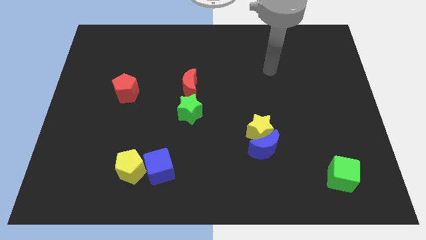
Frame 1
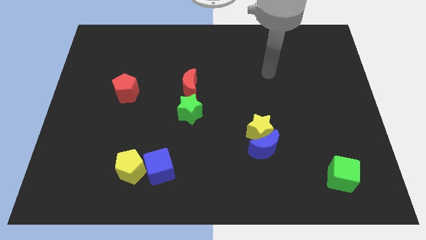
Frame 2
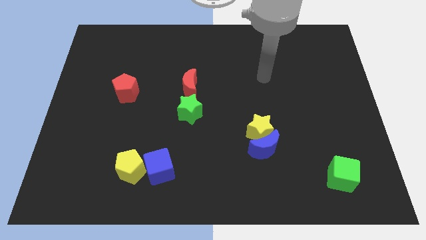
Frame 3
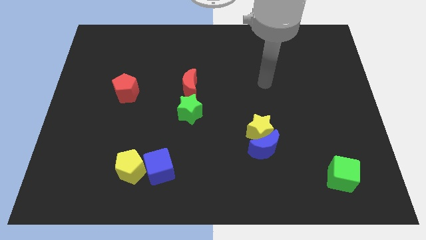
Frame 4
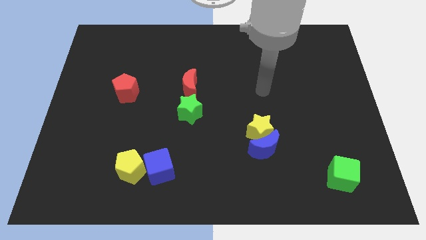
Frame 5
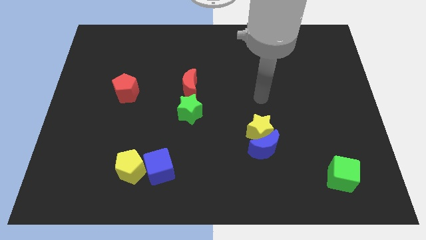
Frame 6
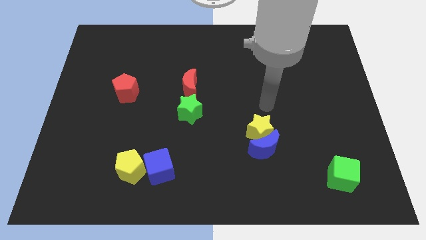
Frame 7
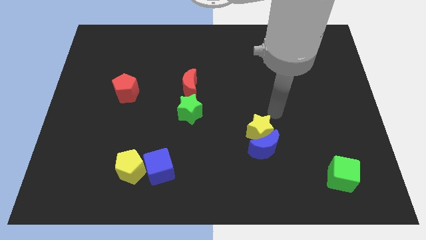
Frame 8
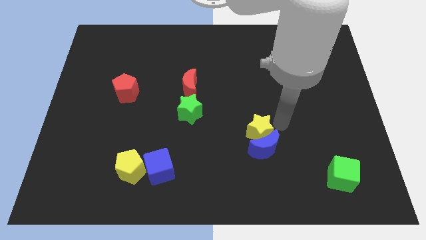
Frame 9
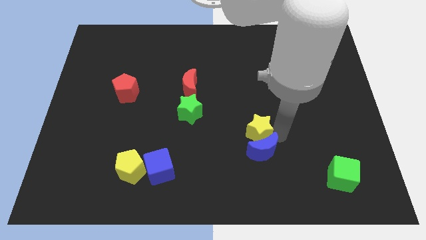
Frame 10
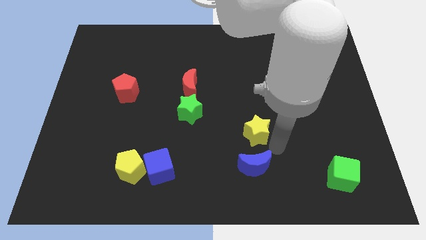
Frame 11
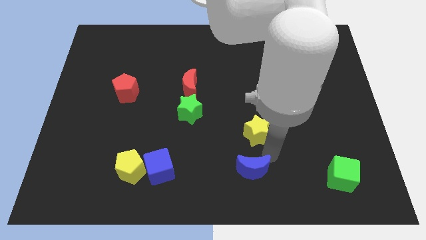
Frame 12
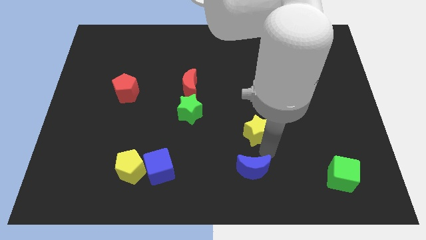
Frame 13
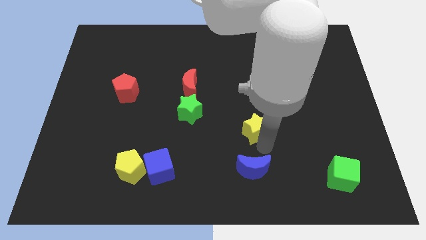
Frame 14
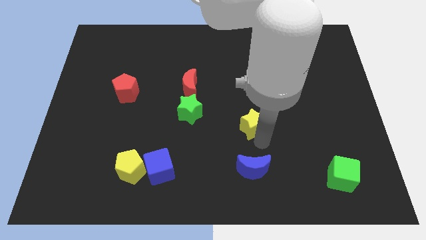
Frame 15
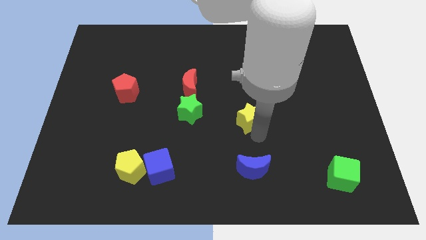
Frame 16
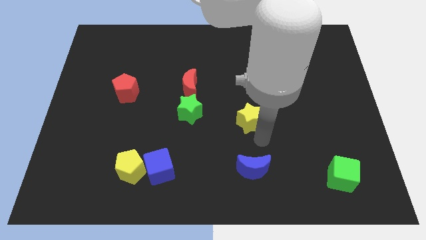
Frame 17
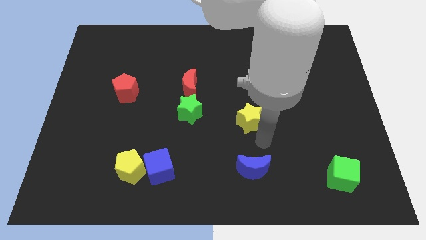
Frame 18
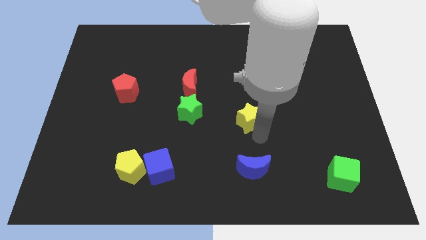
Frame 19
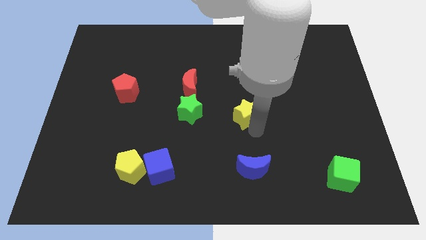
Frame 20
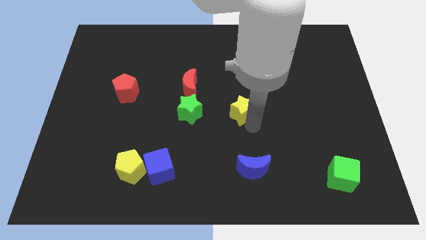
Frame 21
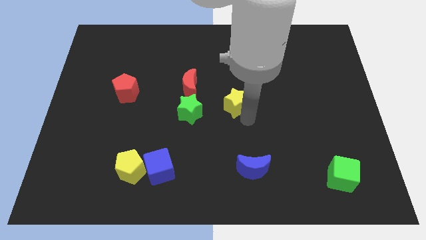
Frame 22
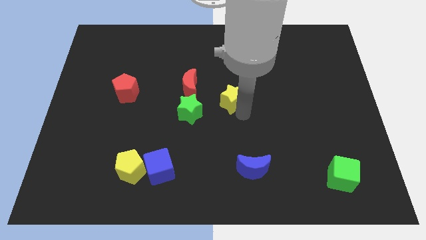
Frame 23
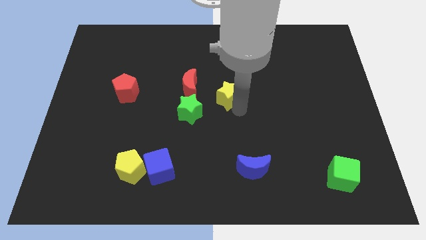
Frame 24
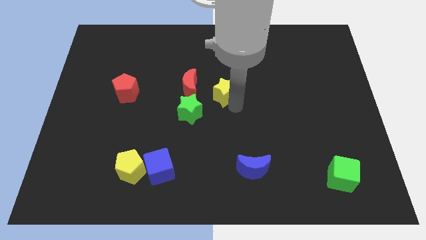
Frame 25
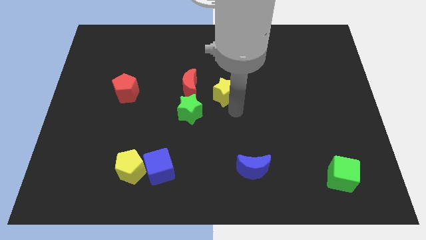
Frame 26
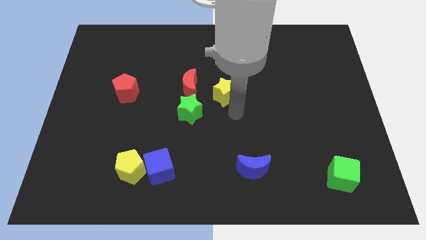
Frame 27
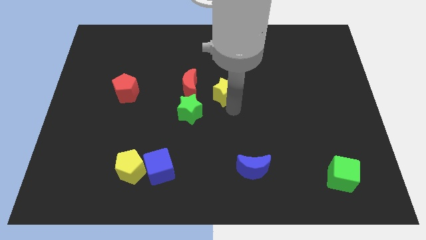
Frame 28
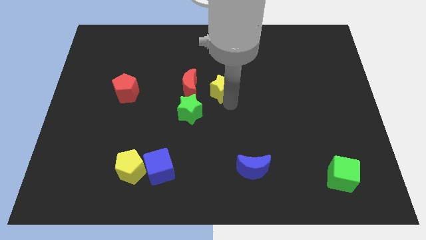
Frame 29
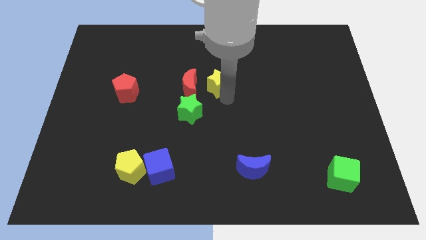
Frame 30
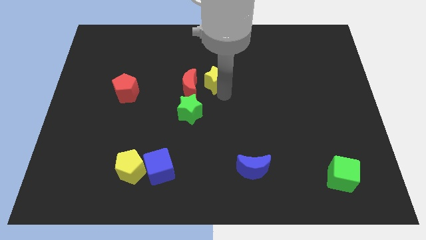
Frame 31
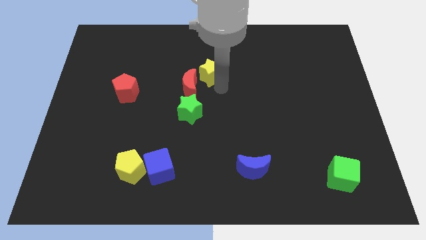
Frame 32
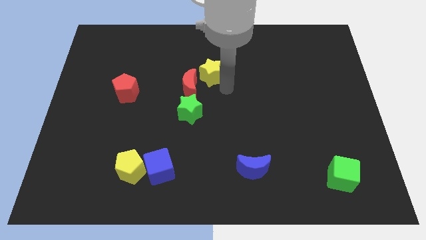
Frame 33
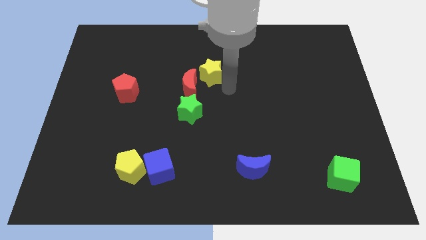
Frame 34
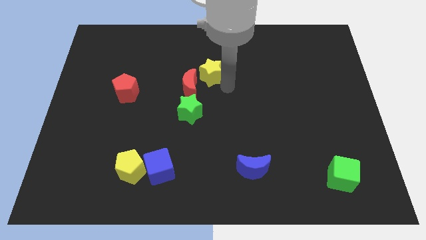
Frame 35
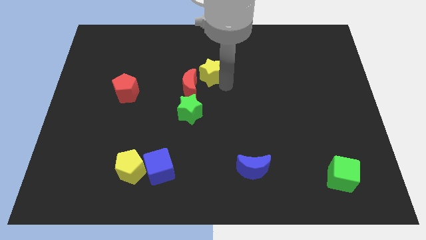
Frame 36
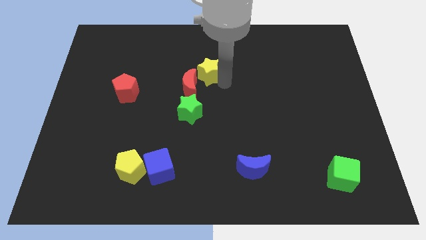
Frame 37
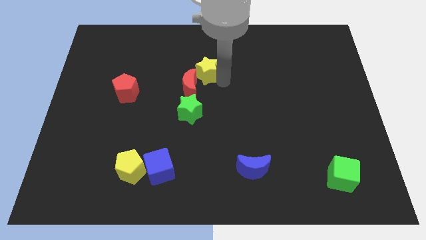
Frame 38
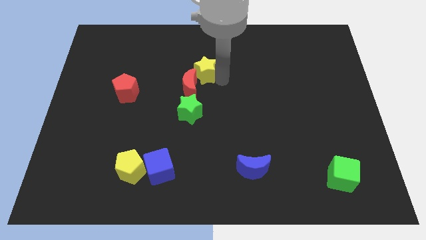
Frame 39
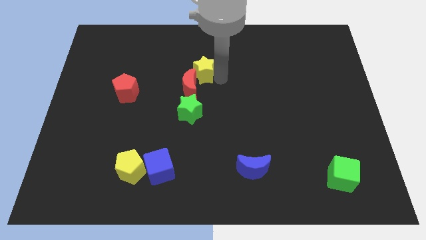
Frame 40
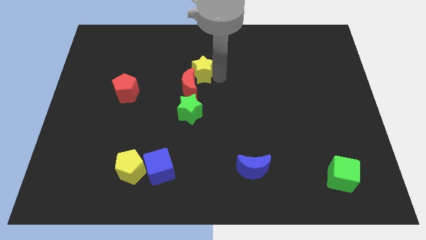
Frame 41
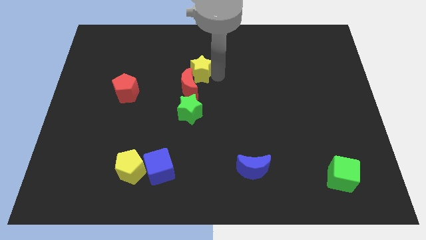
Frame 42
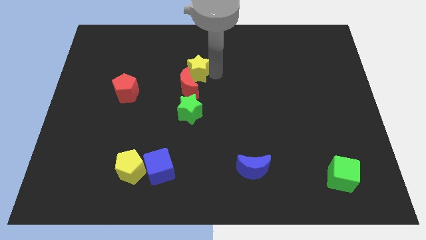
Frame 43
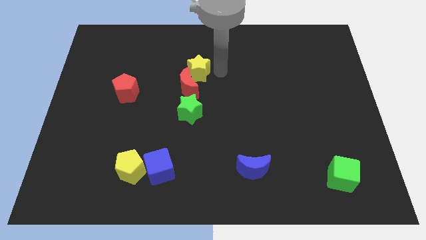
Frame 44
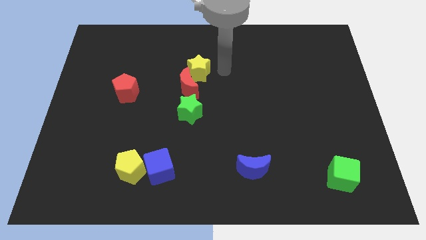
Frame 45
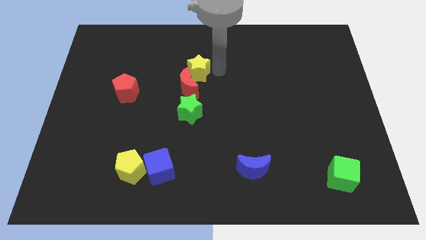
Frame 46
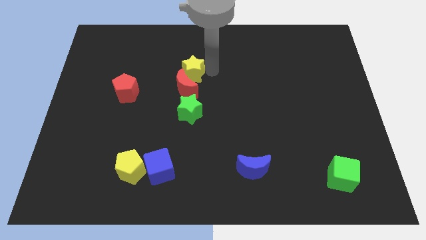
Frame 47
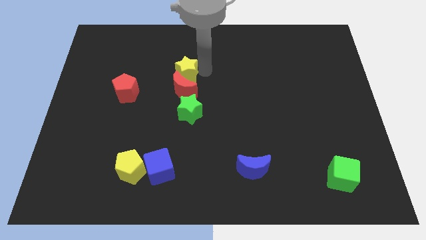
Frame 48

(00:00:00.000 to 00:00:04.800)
put the yellow star to the top left of the red moon

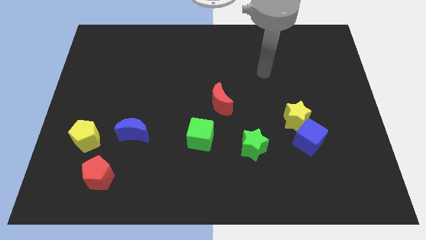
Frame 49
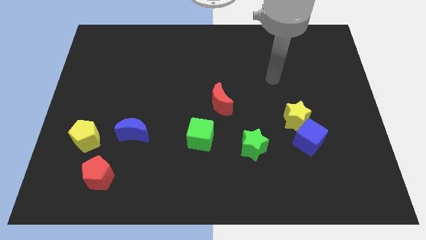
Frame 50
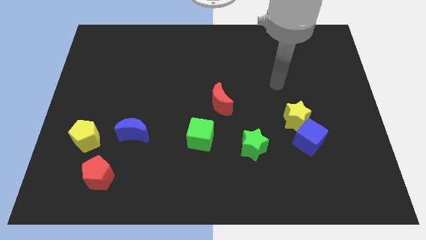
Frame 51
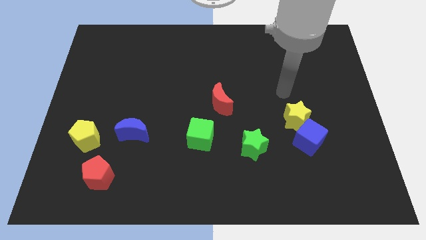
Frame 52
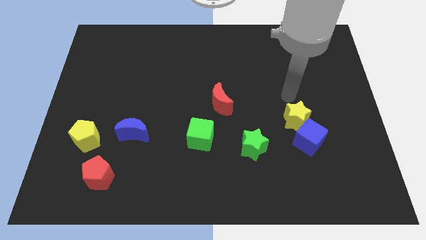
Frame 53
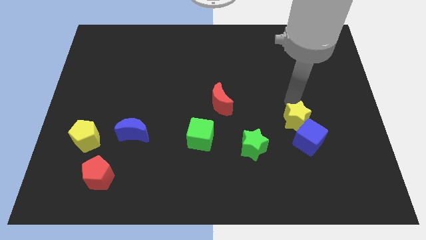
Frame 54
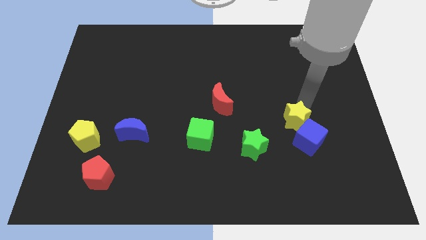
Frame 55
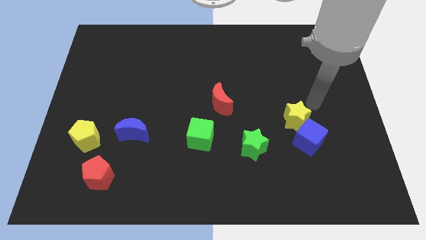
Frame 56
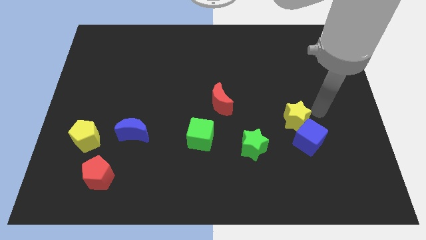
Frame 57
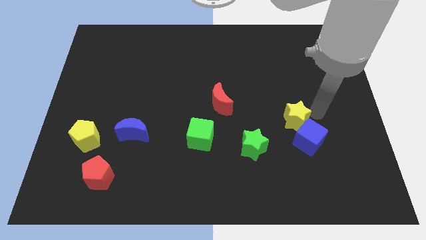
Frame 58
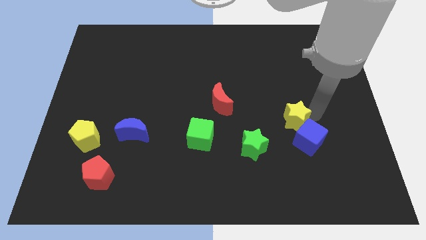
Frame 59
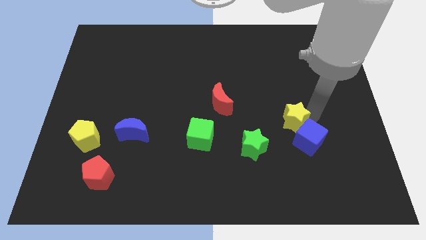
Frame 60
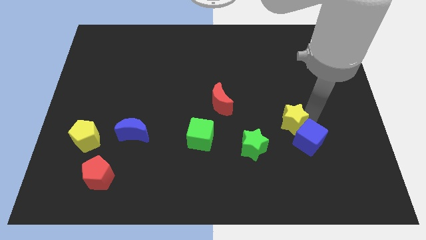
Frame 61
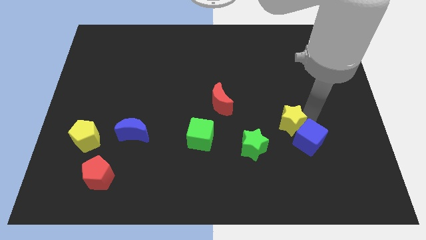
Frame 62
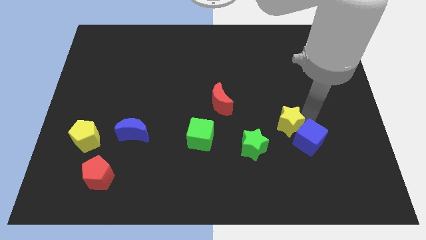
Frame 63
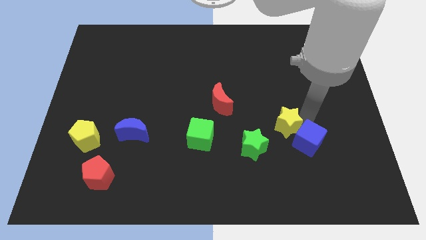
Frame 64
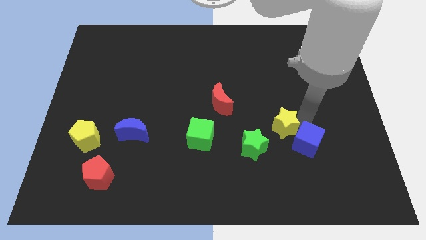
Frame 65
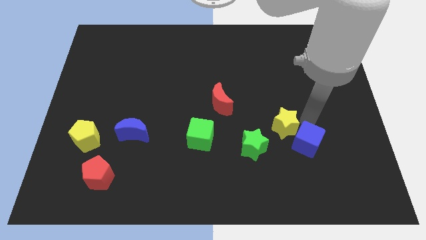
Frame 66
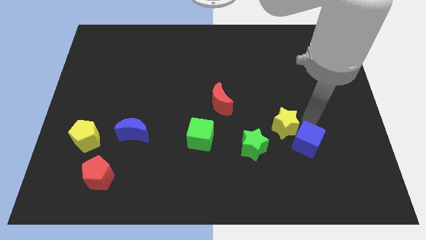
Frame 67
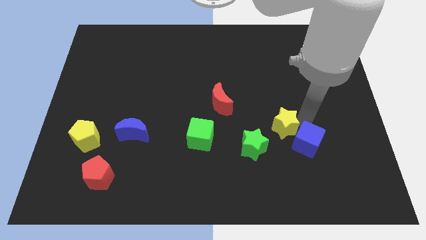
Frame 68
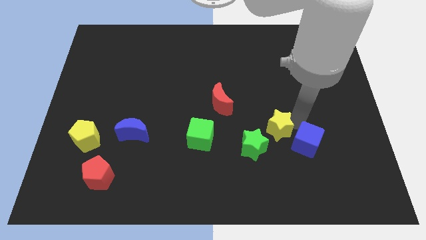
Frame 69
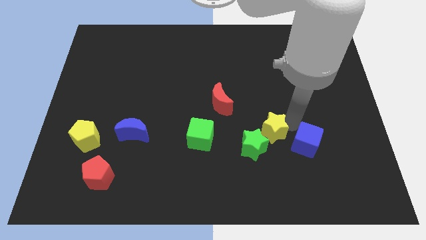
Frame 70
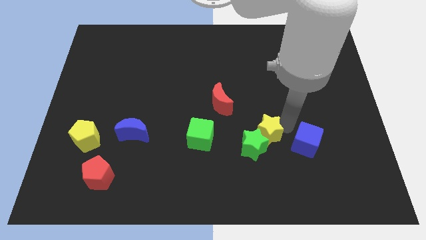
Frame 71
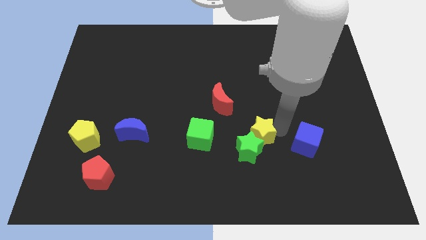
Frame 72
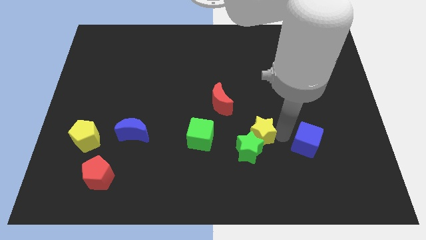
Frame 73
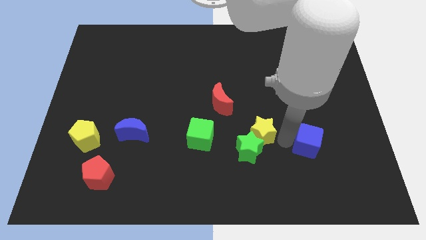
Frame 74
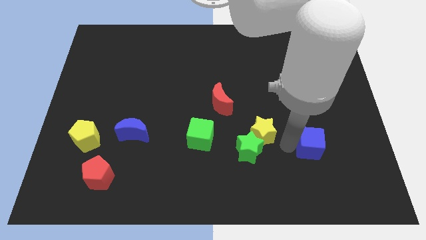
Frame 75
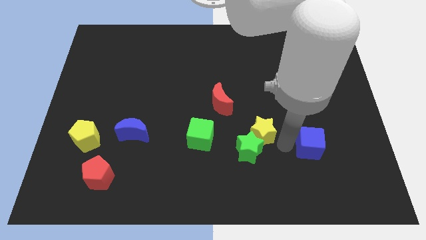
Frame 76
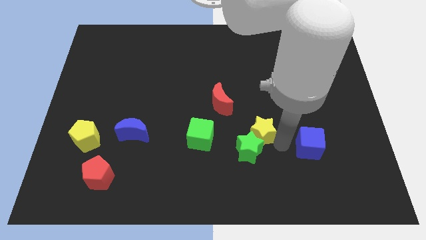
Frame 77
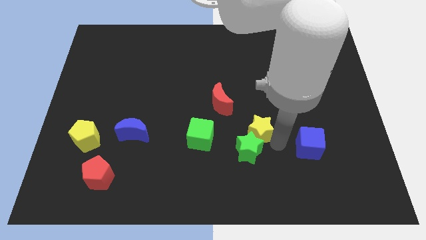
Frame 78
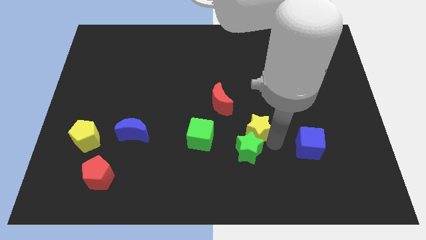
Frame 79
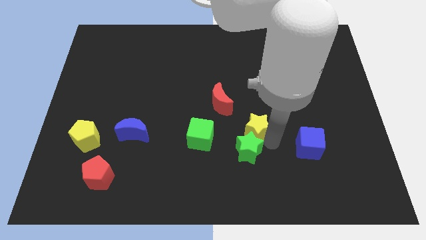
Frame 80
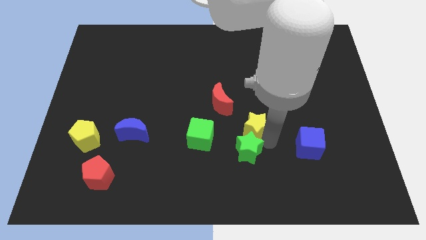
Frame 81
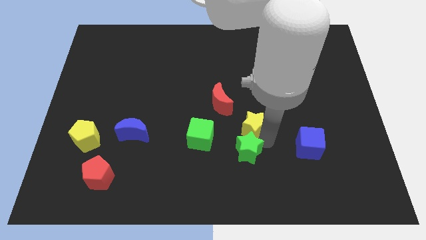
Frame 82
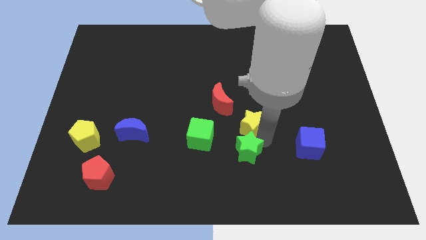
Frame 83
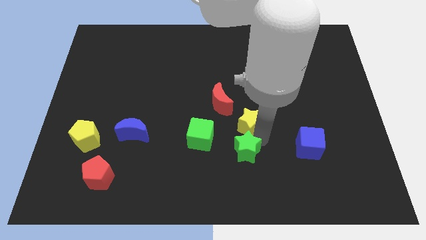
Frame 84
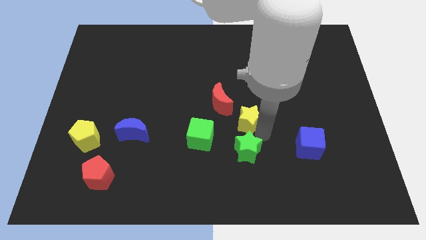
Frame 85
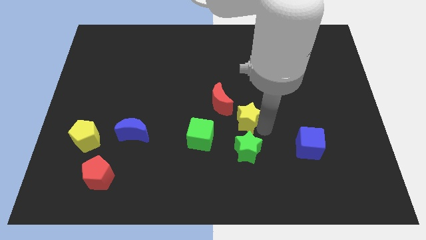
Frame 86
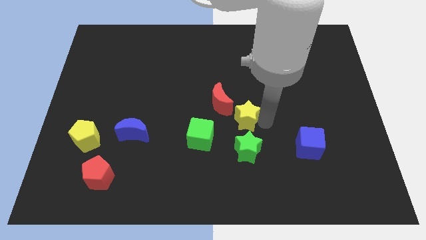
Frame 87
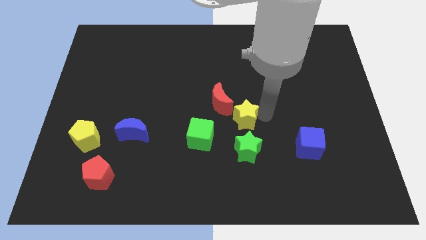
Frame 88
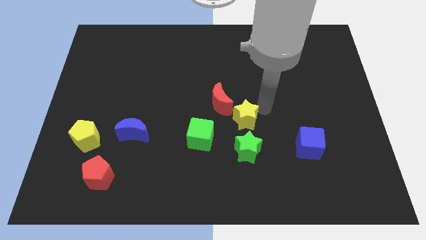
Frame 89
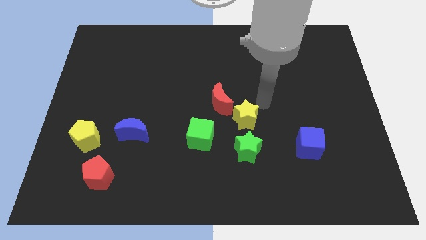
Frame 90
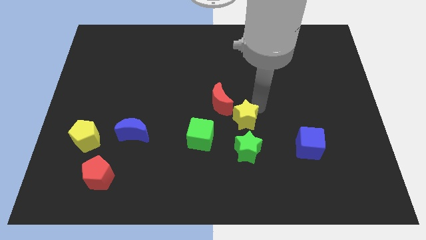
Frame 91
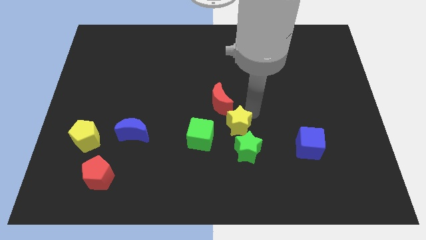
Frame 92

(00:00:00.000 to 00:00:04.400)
put the yellow star to the bottom side of the red moon
